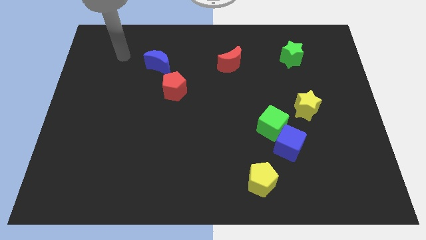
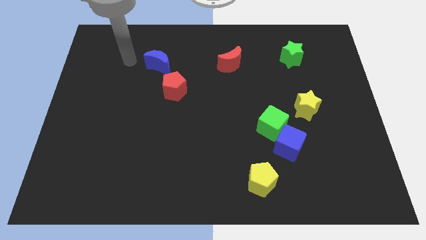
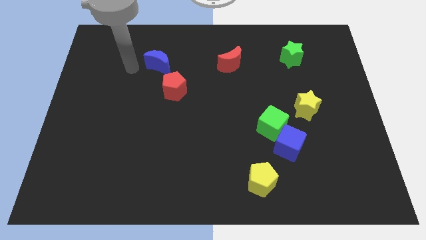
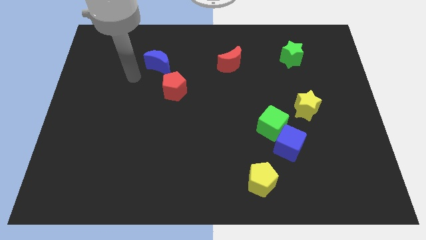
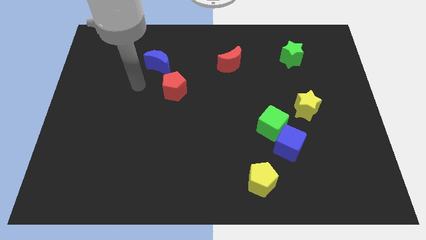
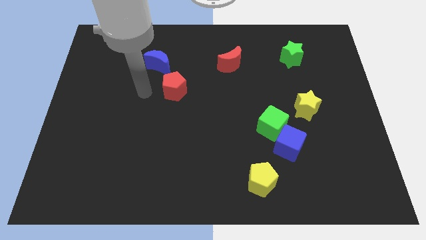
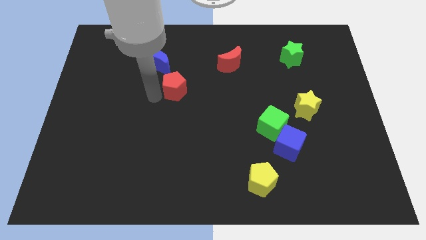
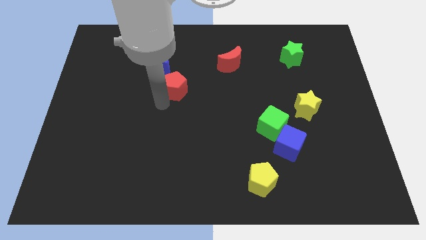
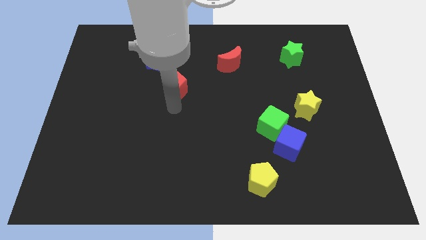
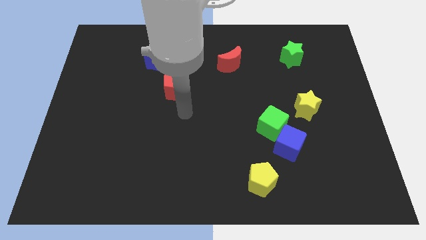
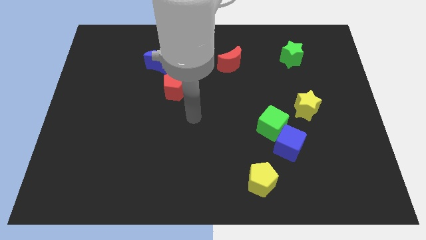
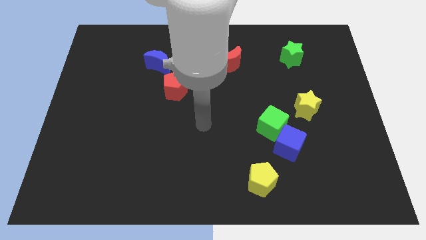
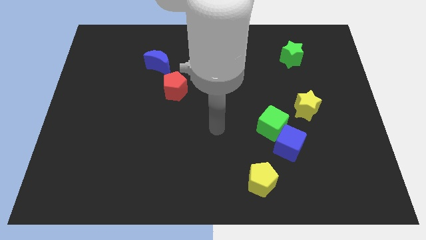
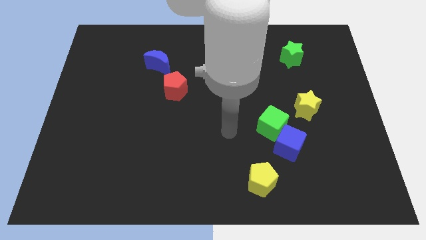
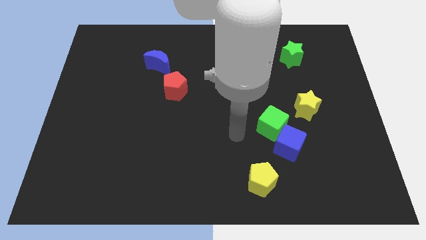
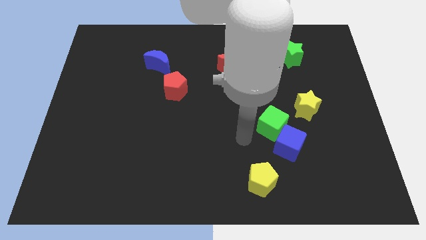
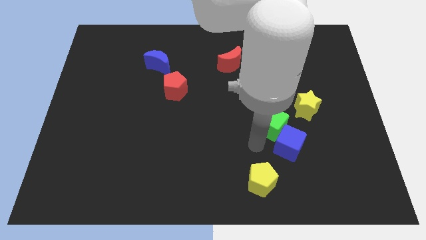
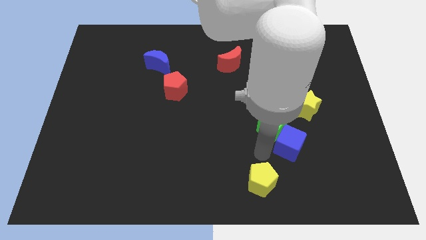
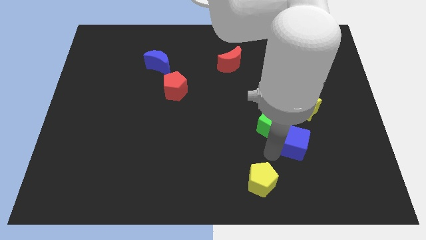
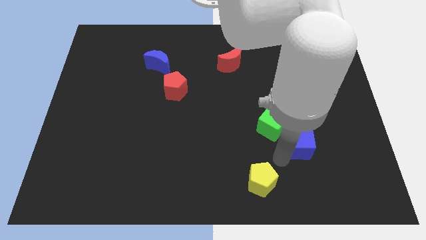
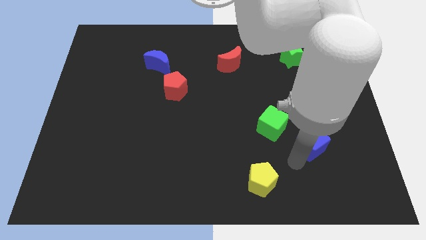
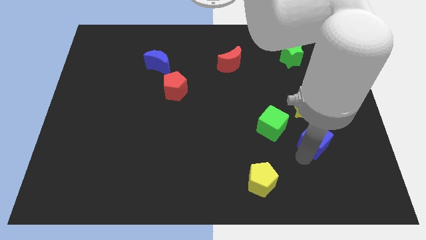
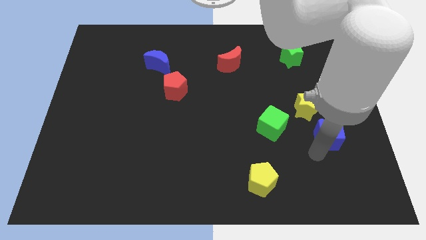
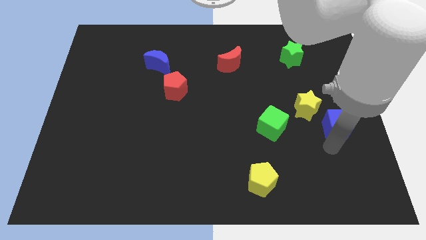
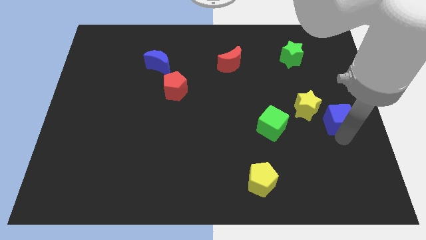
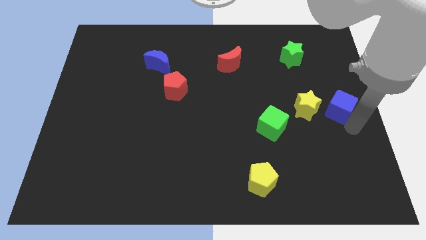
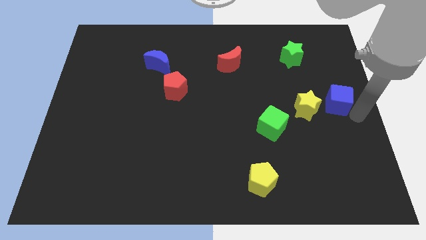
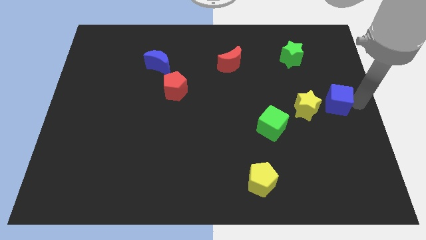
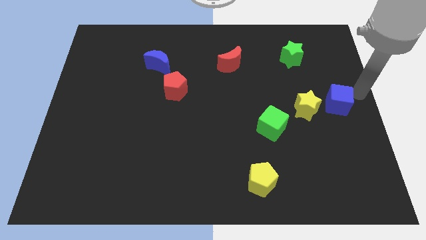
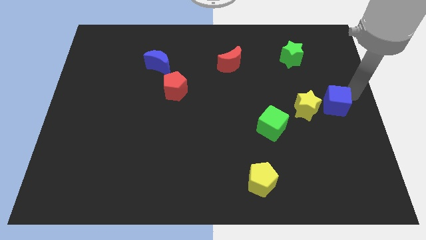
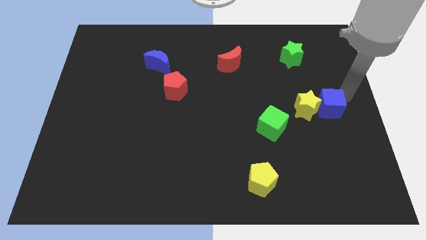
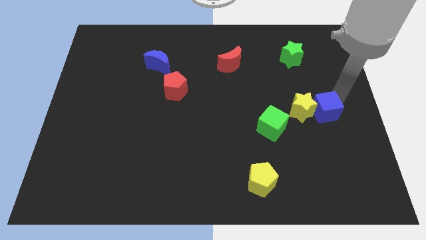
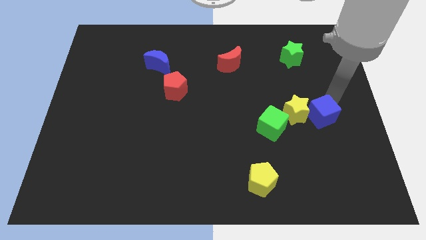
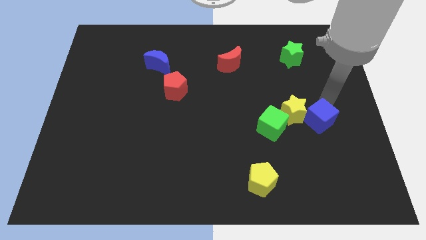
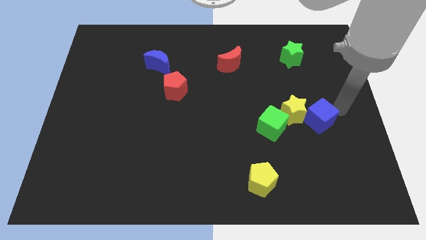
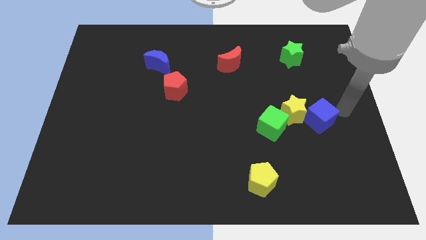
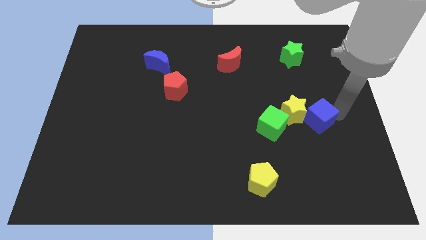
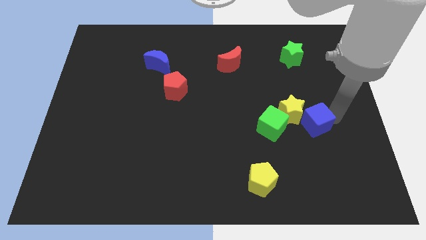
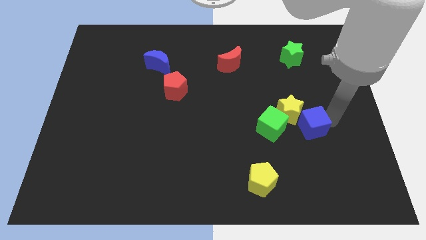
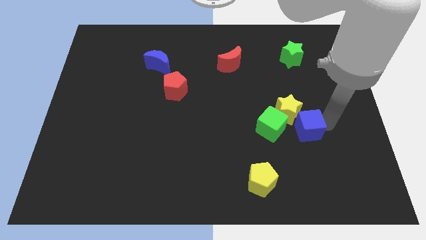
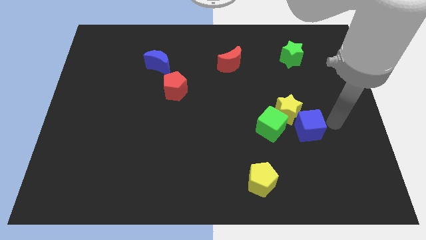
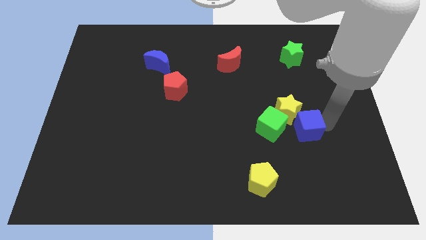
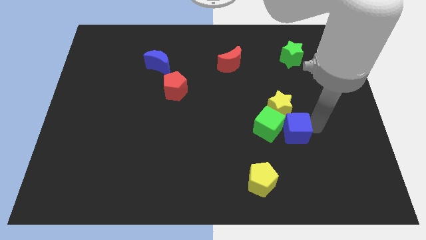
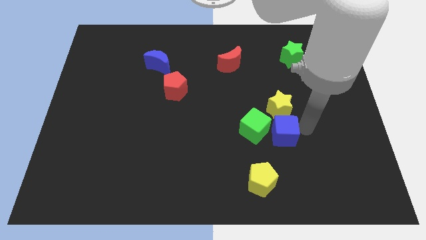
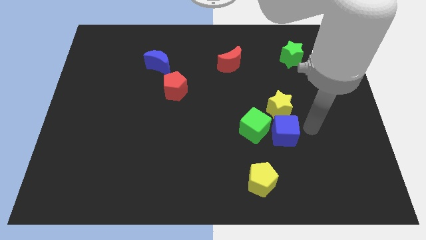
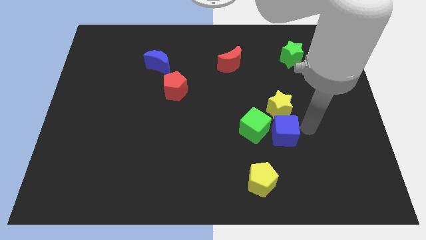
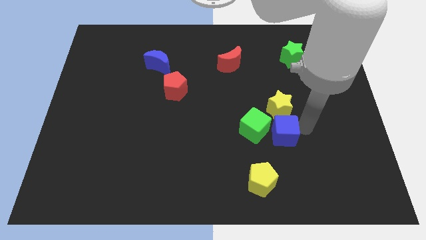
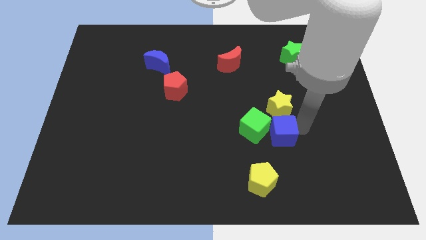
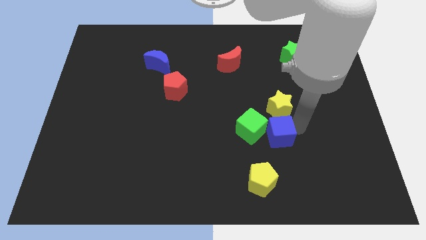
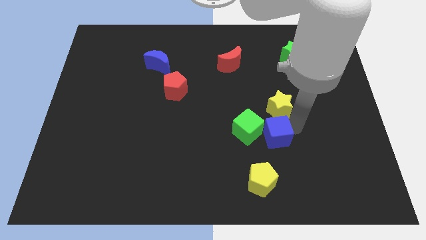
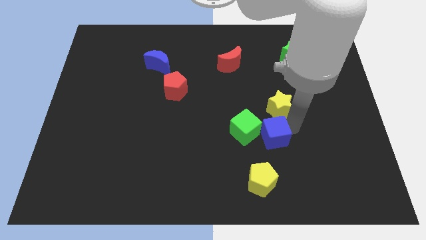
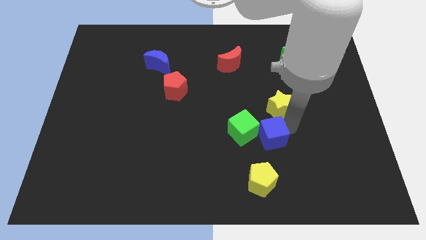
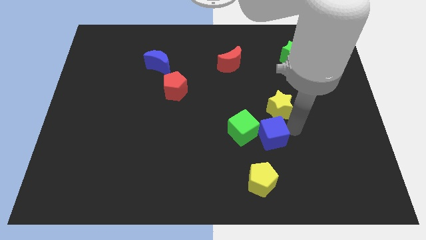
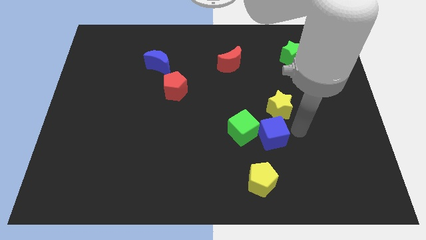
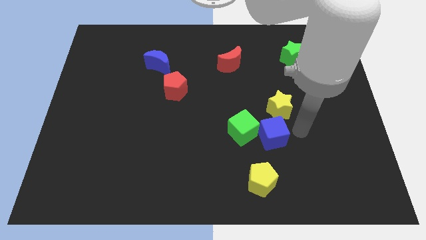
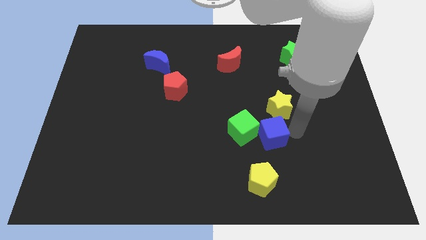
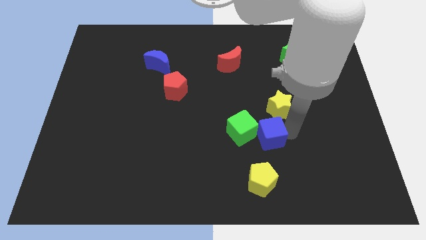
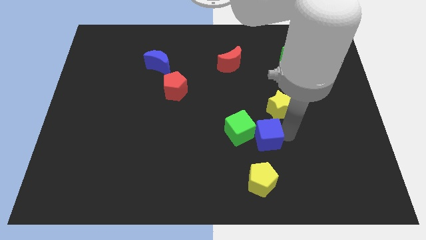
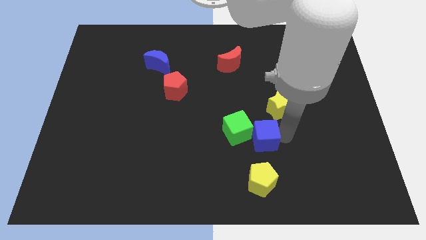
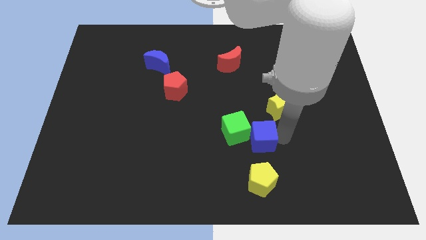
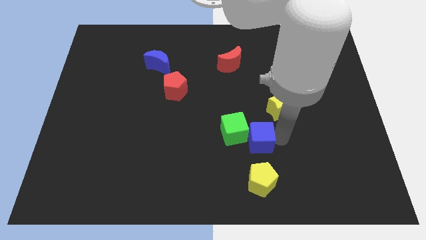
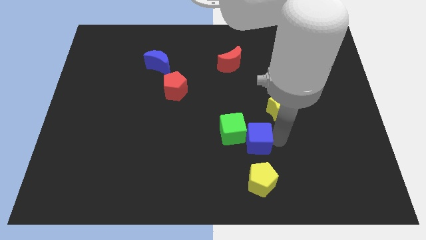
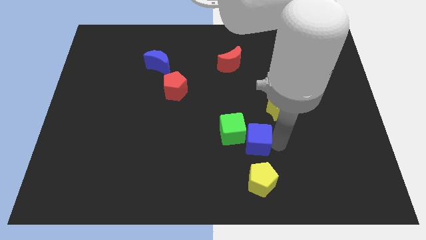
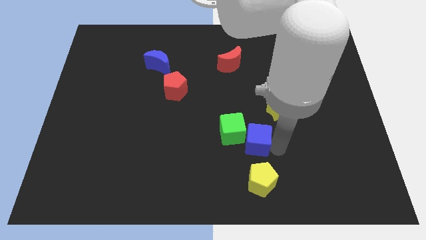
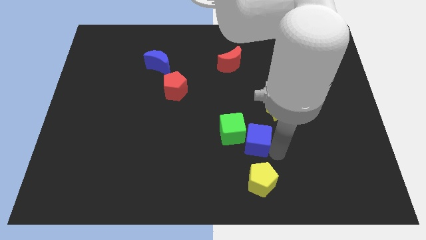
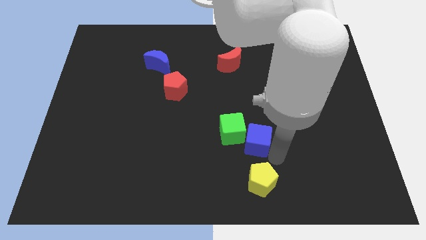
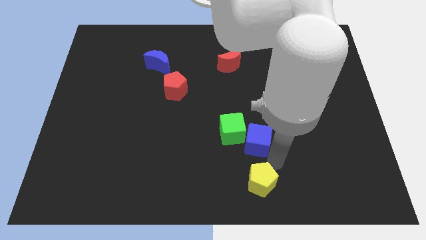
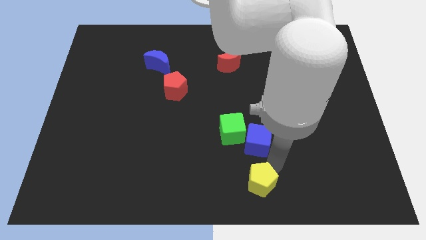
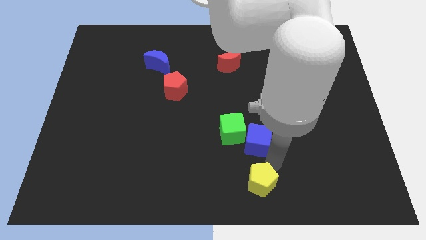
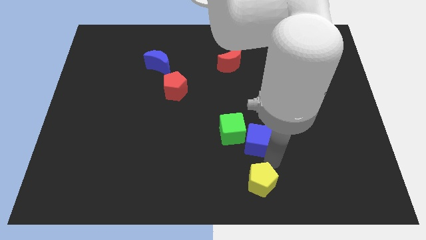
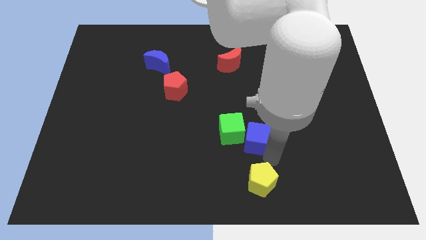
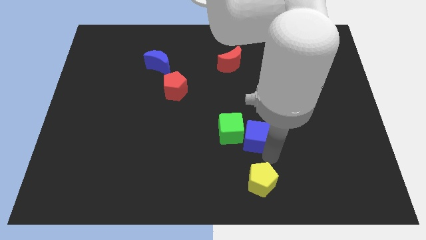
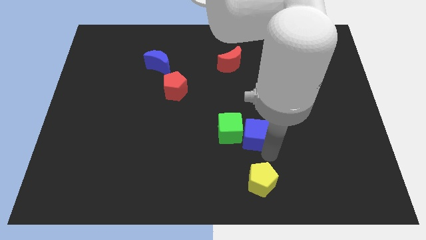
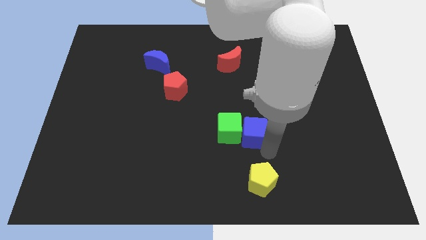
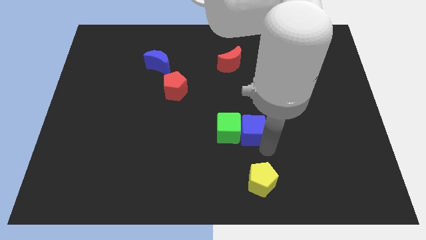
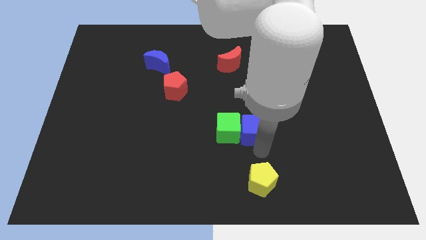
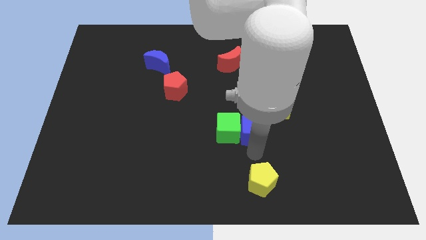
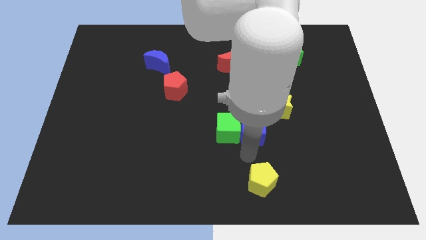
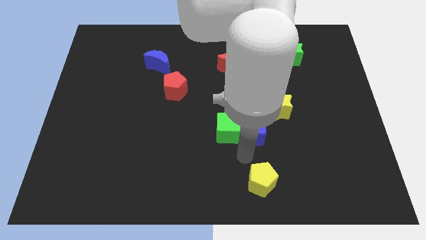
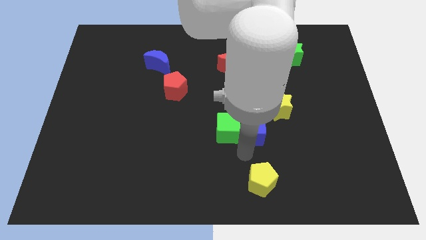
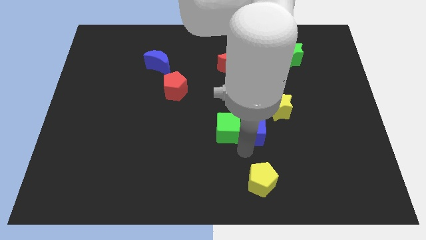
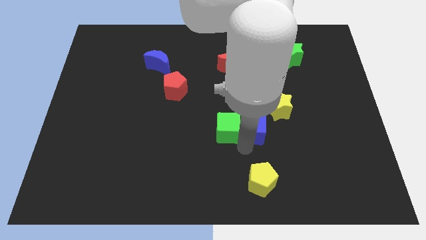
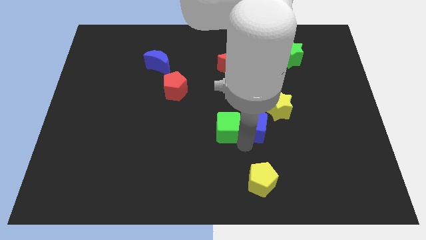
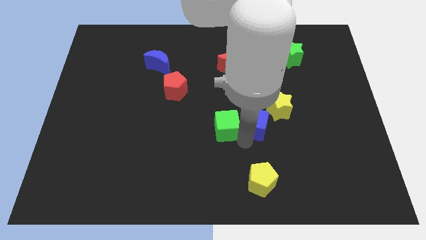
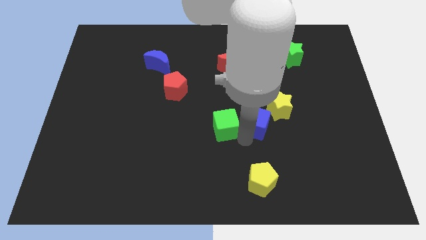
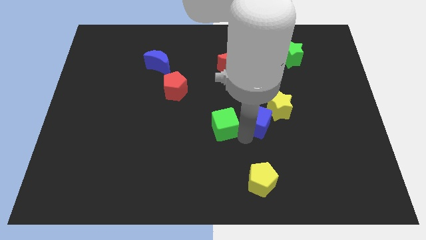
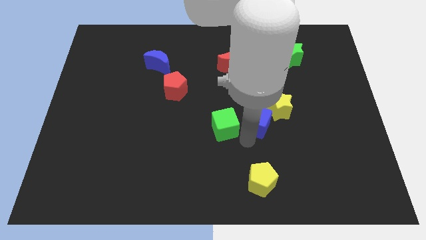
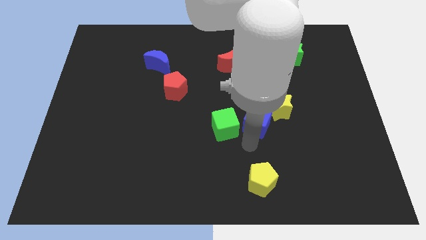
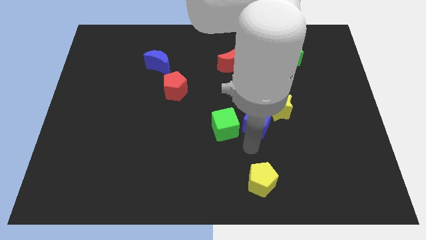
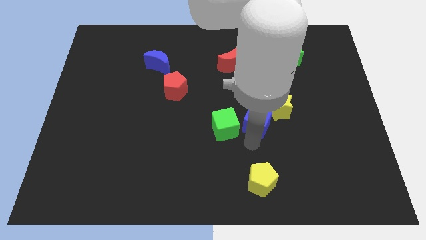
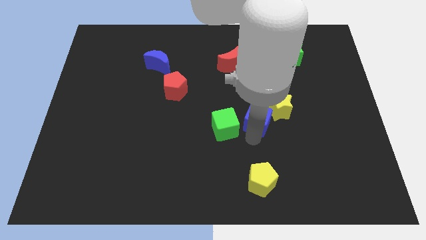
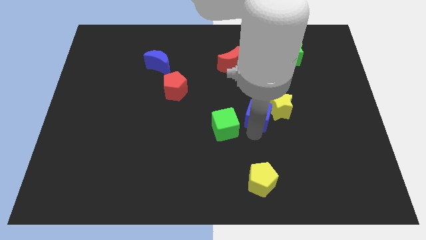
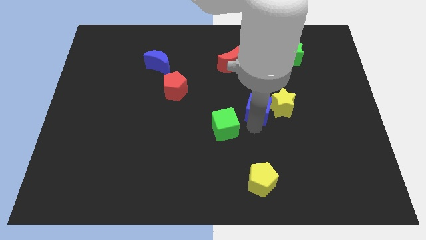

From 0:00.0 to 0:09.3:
slightly push the blue cube up
